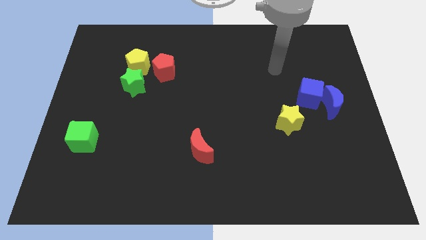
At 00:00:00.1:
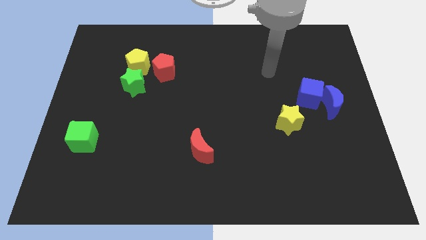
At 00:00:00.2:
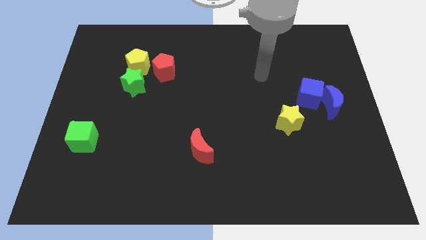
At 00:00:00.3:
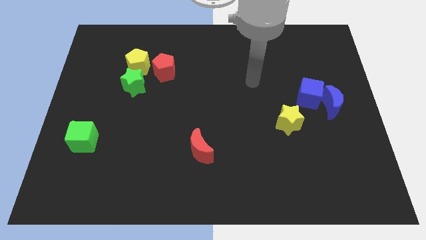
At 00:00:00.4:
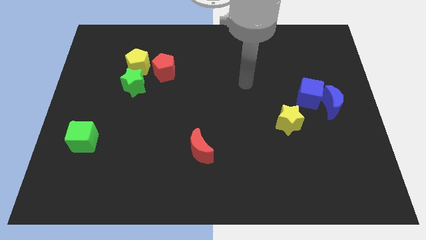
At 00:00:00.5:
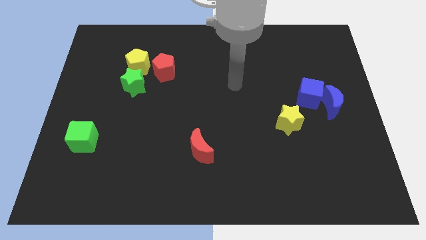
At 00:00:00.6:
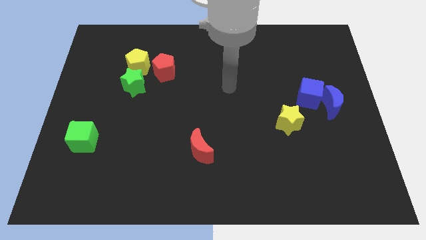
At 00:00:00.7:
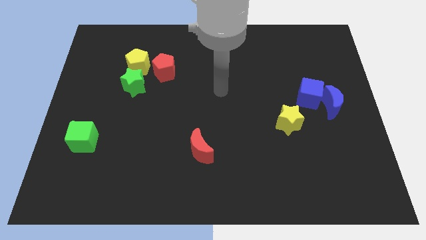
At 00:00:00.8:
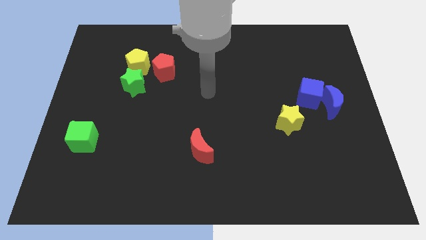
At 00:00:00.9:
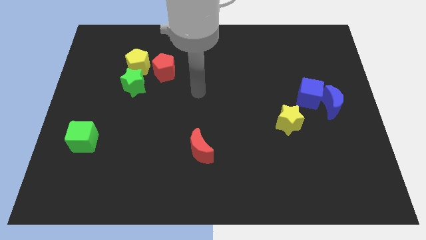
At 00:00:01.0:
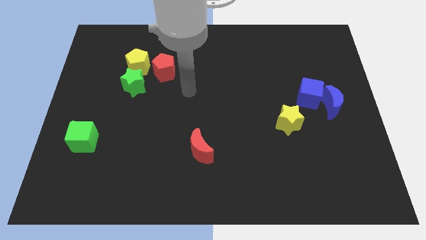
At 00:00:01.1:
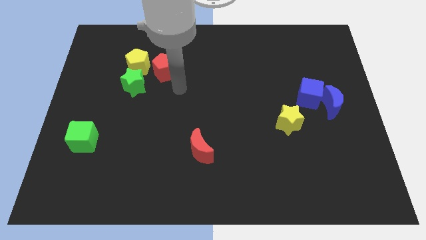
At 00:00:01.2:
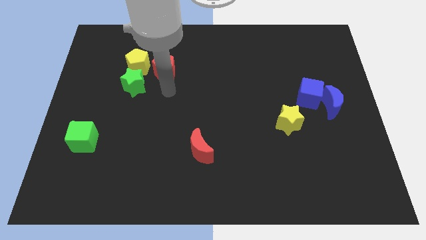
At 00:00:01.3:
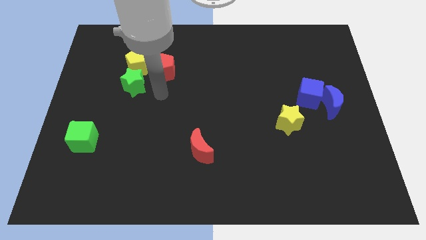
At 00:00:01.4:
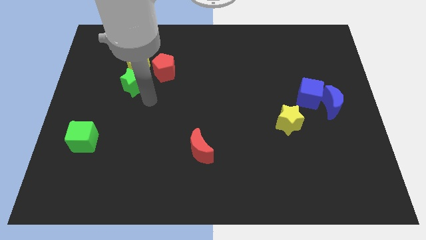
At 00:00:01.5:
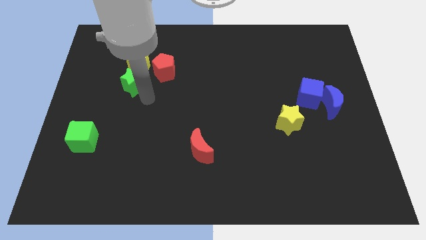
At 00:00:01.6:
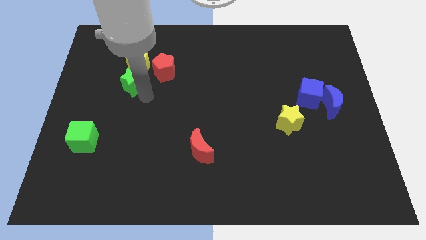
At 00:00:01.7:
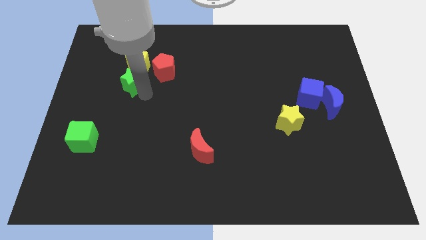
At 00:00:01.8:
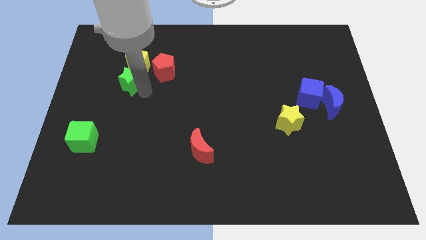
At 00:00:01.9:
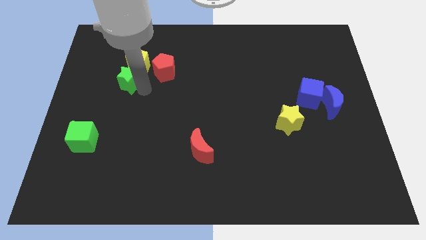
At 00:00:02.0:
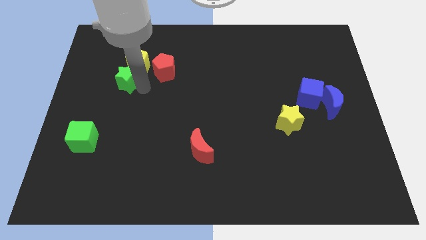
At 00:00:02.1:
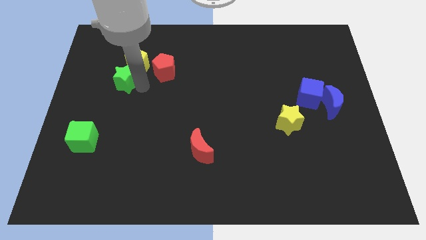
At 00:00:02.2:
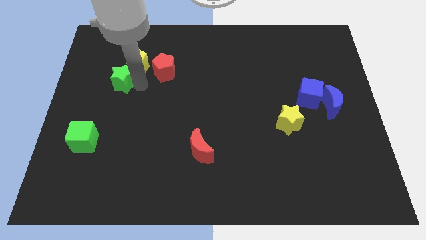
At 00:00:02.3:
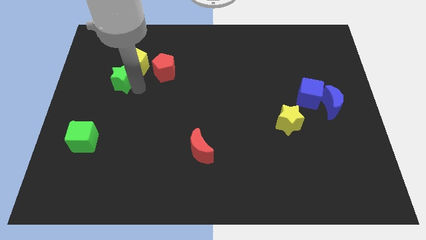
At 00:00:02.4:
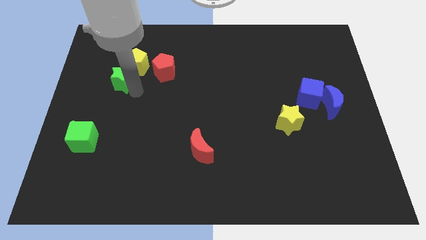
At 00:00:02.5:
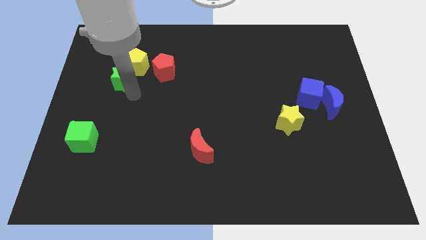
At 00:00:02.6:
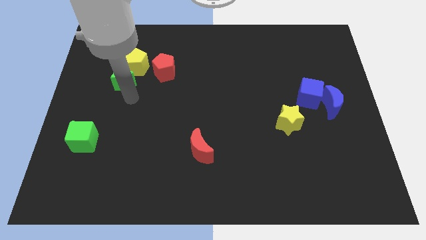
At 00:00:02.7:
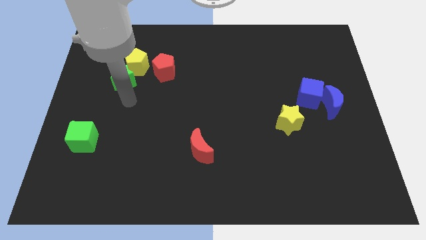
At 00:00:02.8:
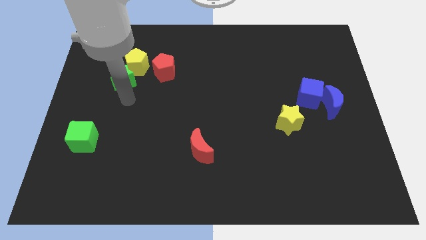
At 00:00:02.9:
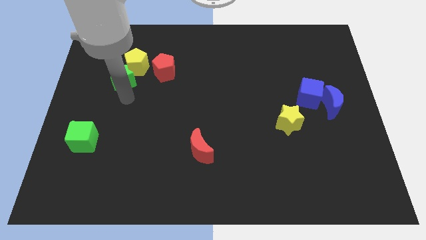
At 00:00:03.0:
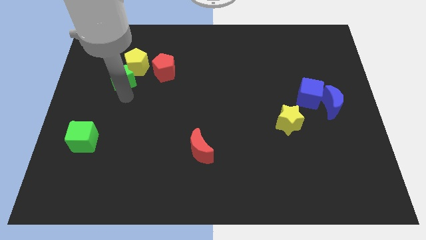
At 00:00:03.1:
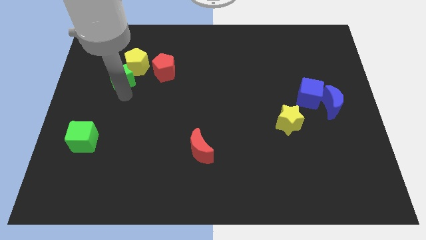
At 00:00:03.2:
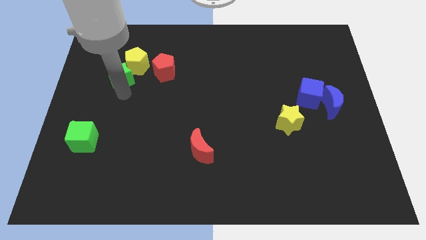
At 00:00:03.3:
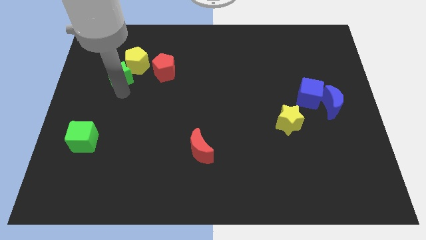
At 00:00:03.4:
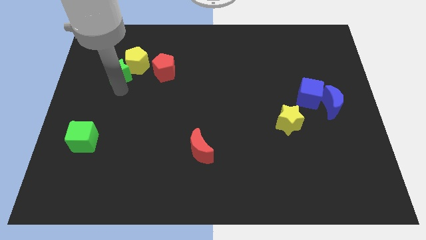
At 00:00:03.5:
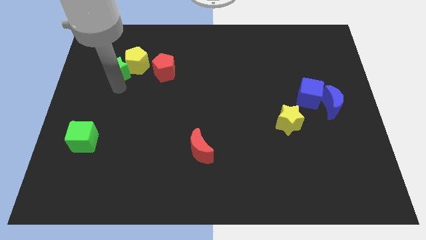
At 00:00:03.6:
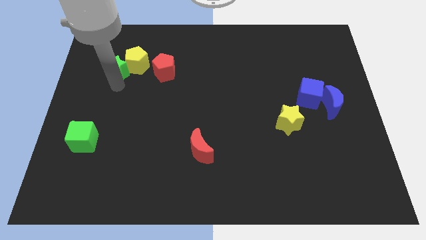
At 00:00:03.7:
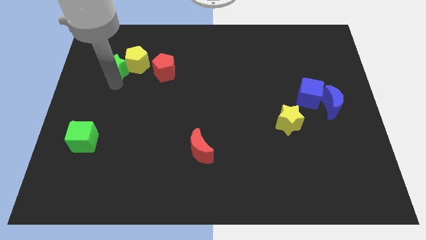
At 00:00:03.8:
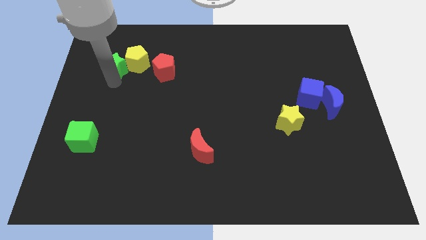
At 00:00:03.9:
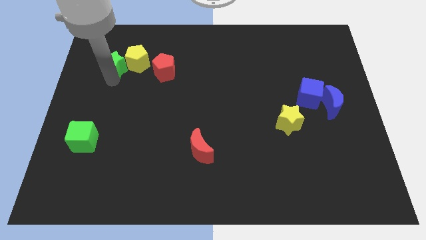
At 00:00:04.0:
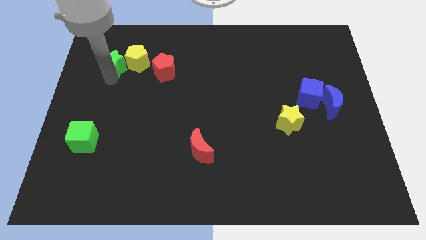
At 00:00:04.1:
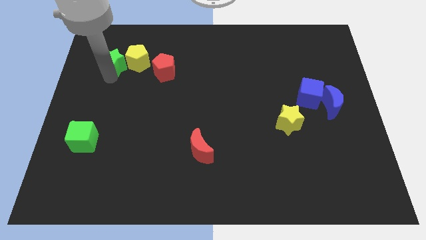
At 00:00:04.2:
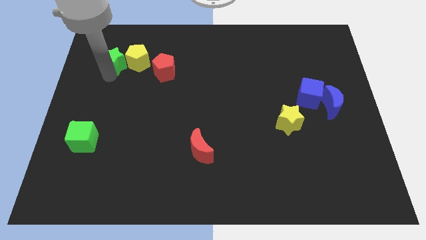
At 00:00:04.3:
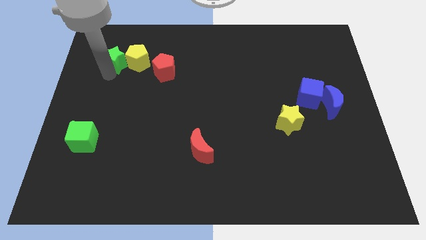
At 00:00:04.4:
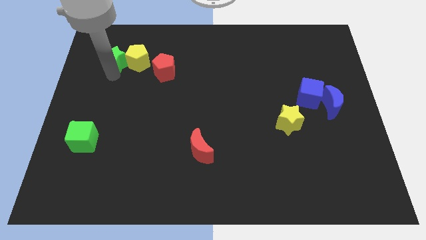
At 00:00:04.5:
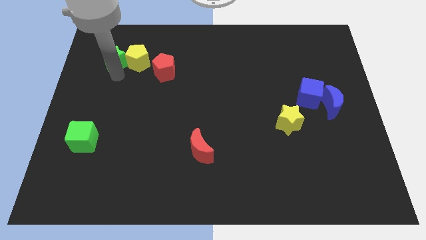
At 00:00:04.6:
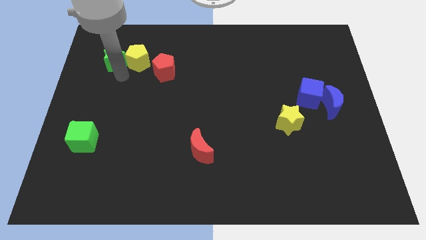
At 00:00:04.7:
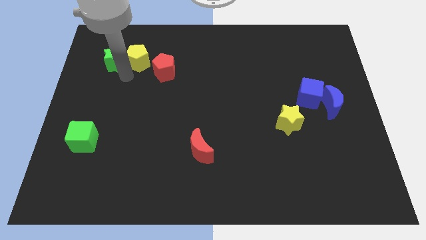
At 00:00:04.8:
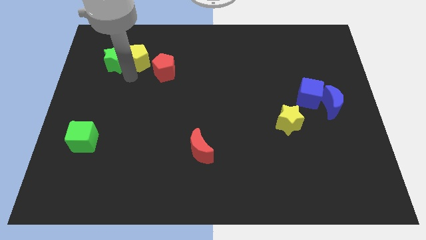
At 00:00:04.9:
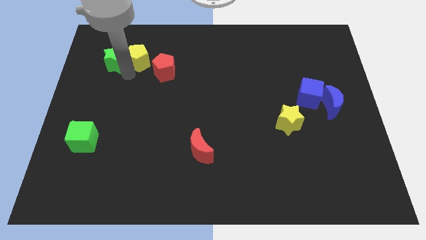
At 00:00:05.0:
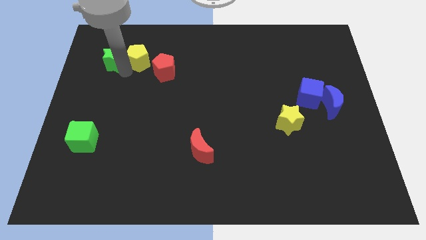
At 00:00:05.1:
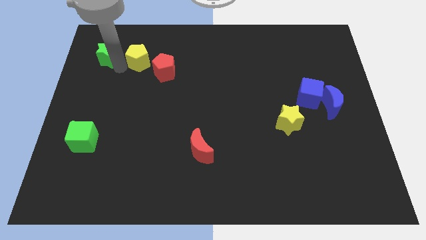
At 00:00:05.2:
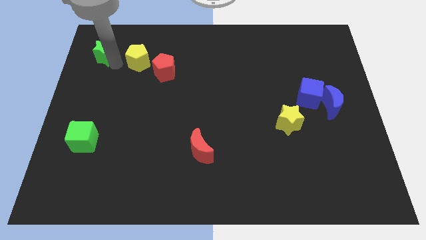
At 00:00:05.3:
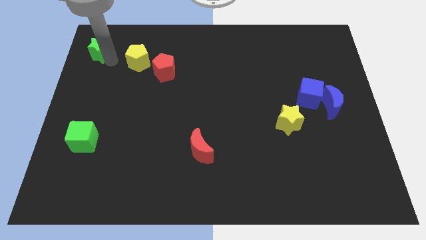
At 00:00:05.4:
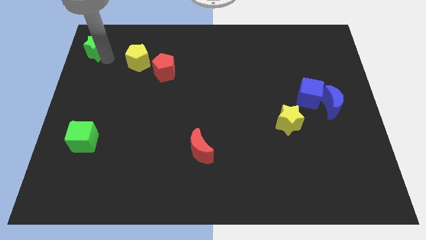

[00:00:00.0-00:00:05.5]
slide the green star to the top left corner

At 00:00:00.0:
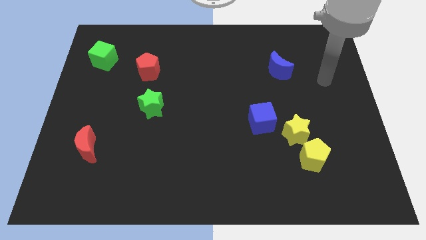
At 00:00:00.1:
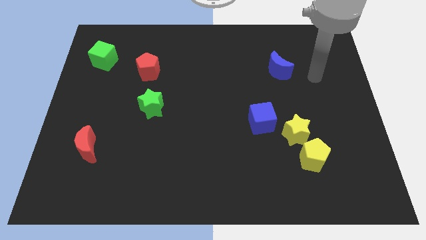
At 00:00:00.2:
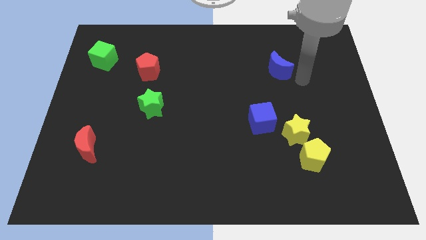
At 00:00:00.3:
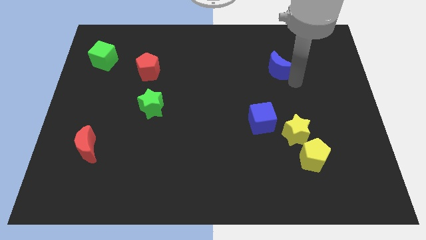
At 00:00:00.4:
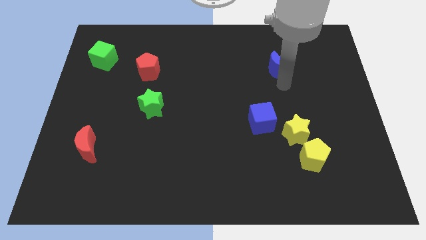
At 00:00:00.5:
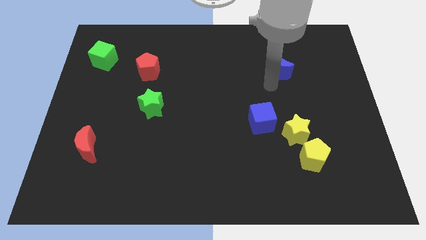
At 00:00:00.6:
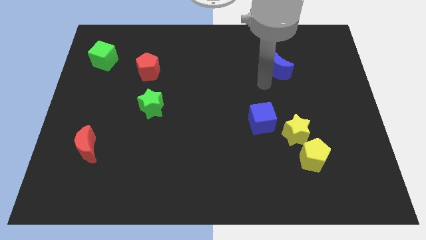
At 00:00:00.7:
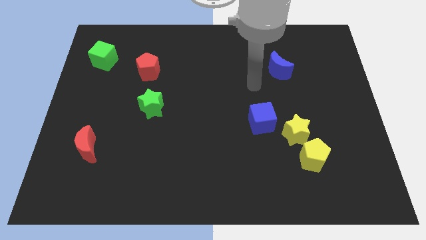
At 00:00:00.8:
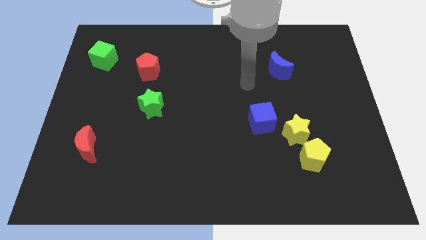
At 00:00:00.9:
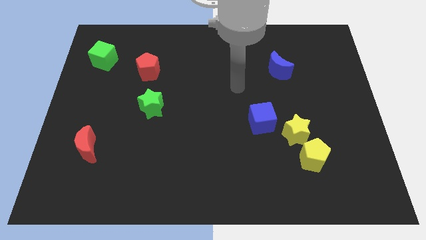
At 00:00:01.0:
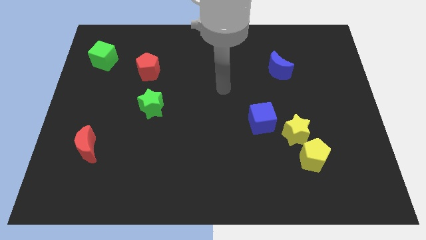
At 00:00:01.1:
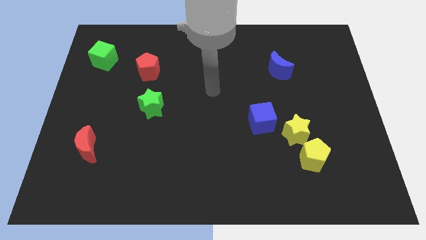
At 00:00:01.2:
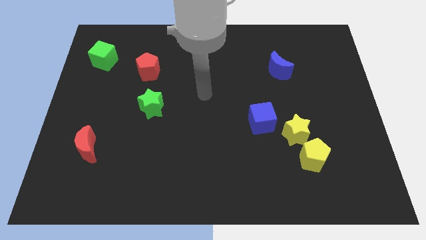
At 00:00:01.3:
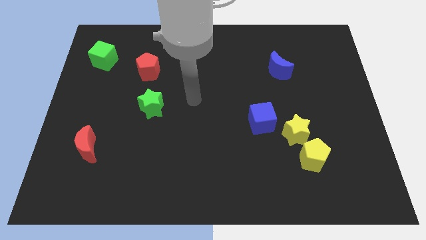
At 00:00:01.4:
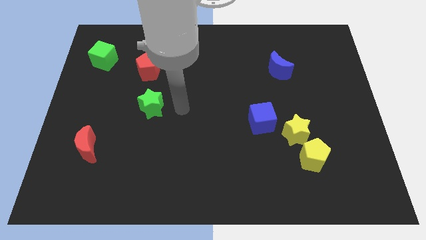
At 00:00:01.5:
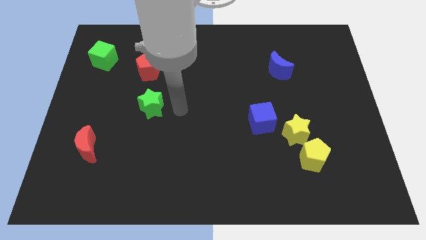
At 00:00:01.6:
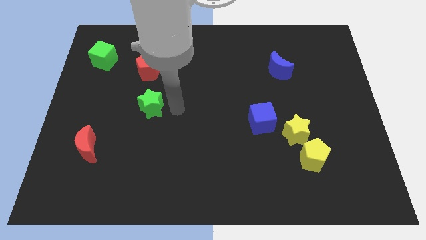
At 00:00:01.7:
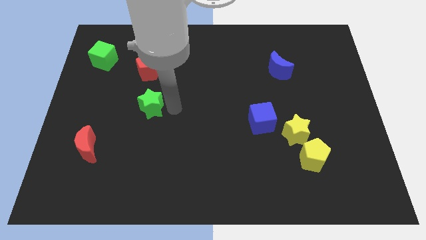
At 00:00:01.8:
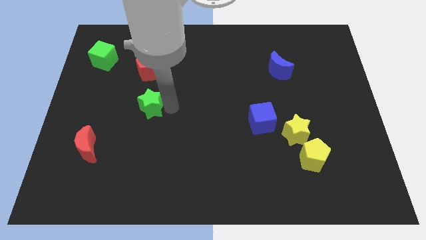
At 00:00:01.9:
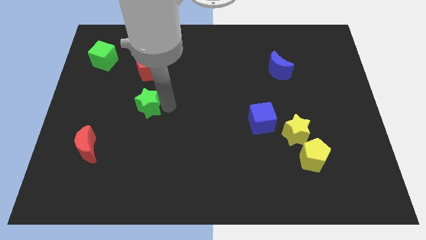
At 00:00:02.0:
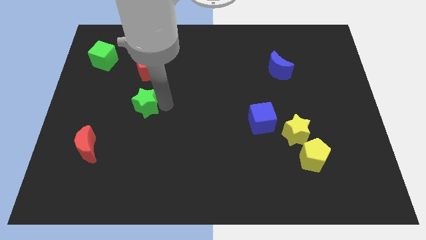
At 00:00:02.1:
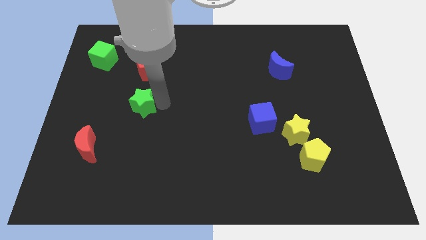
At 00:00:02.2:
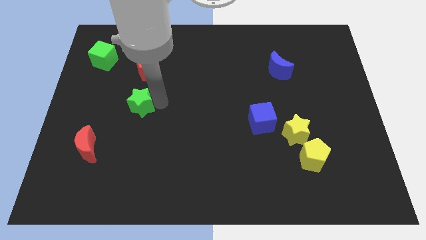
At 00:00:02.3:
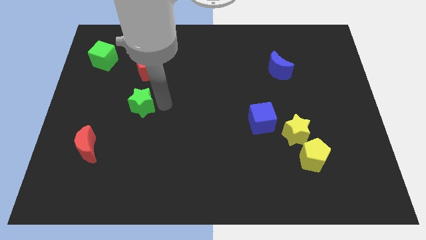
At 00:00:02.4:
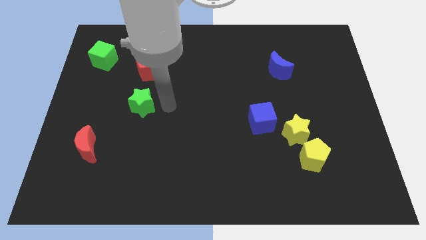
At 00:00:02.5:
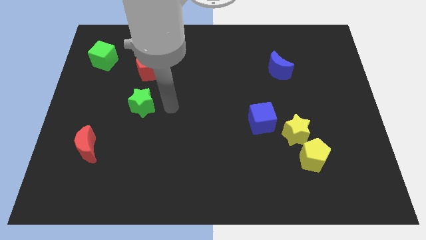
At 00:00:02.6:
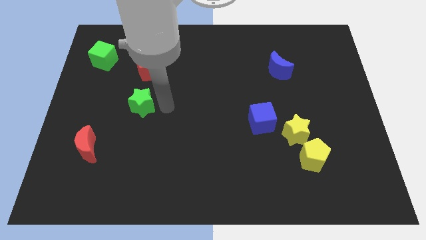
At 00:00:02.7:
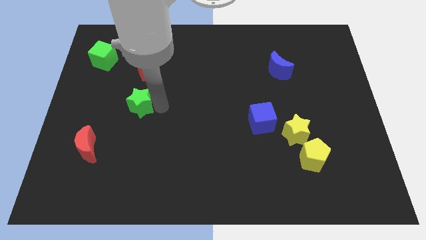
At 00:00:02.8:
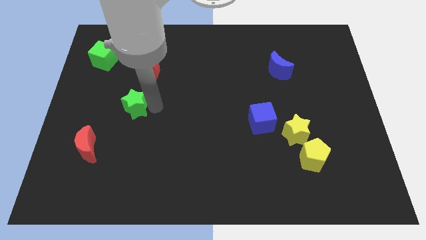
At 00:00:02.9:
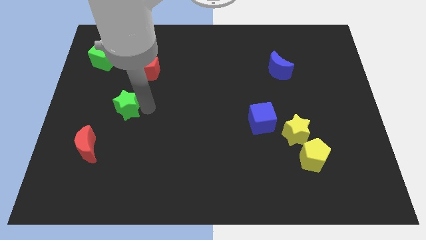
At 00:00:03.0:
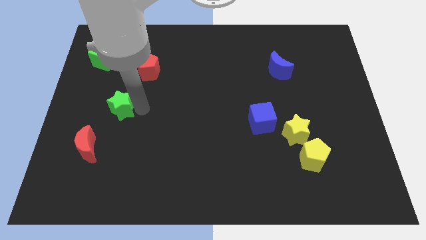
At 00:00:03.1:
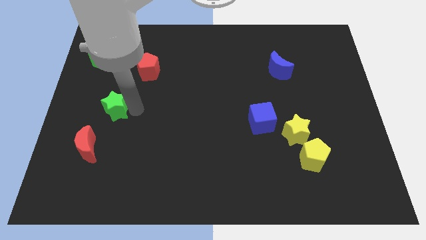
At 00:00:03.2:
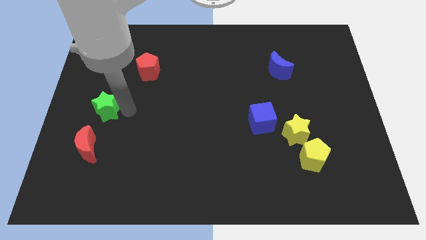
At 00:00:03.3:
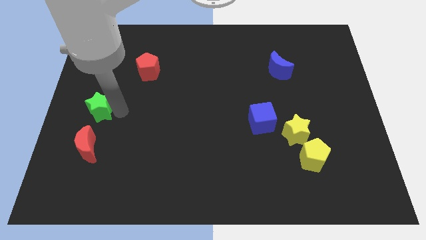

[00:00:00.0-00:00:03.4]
push the green star to the left side
